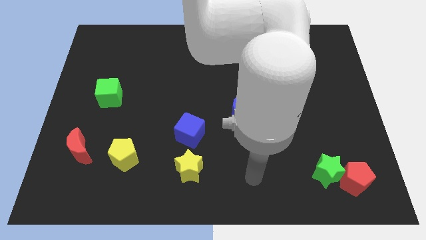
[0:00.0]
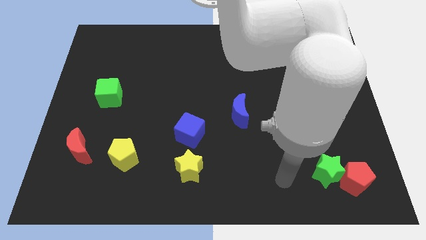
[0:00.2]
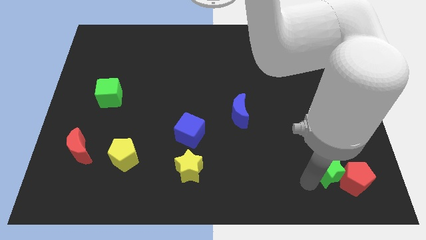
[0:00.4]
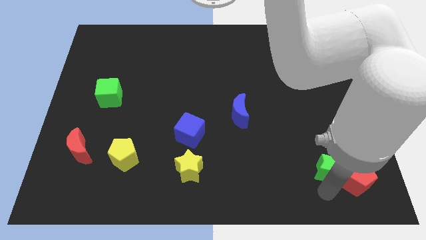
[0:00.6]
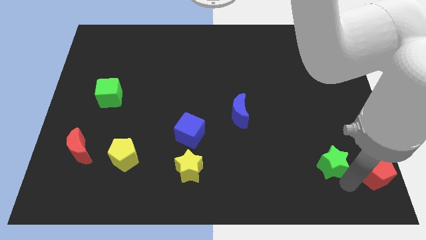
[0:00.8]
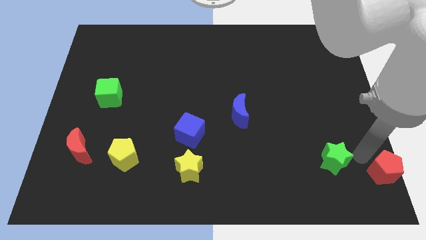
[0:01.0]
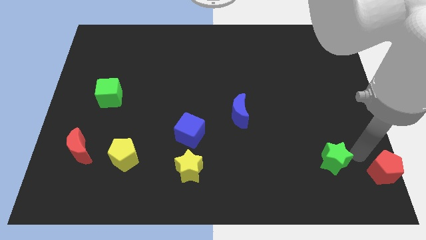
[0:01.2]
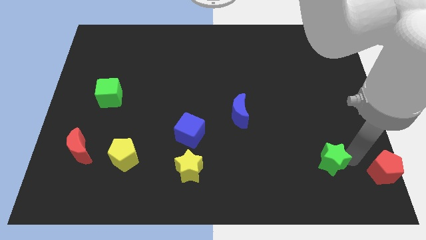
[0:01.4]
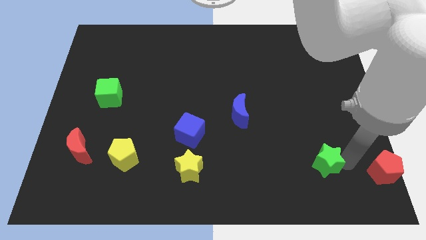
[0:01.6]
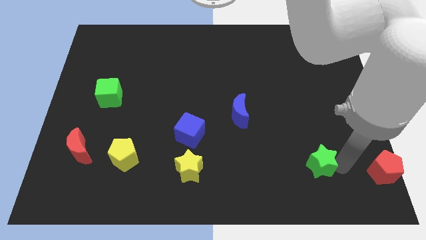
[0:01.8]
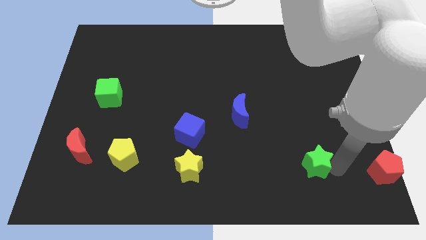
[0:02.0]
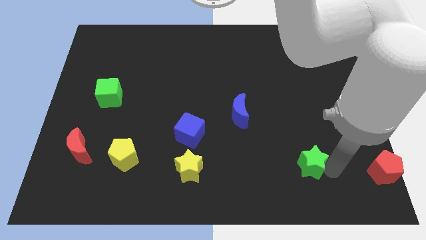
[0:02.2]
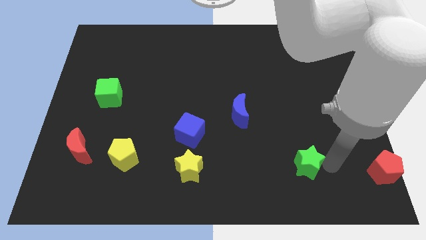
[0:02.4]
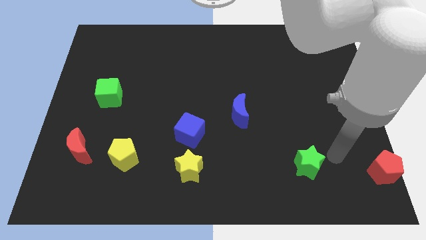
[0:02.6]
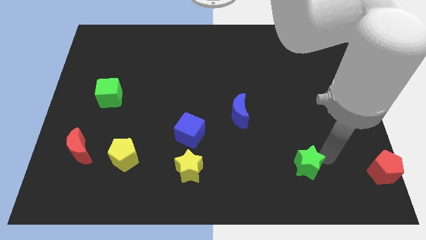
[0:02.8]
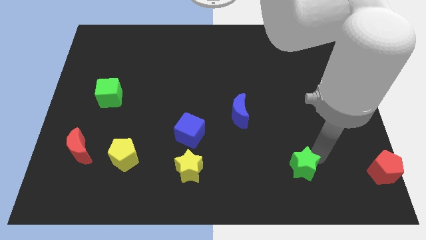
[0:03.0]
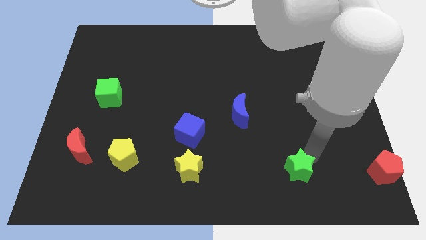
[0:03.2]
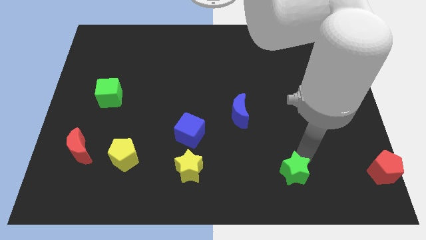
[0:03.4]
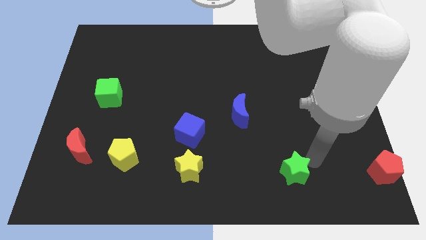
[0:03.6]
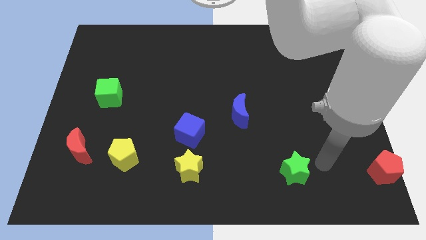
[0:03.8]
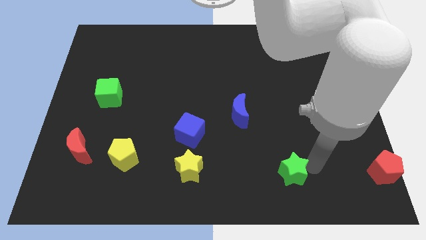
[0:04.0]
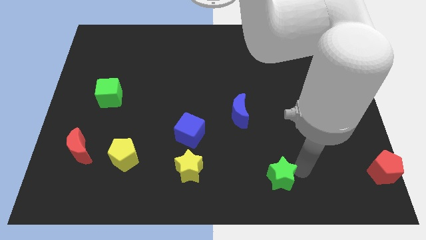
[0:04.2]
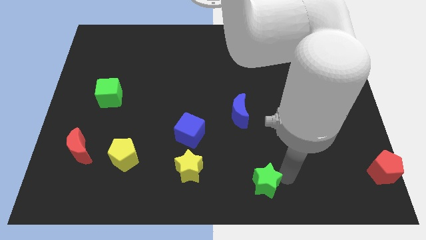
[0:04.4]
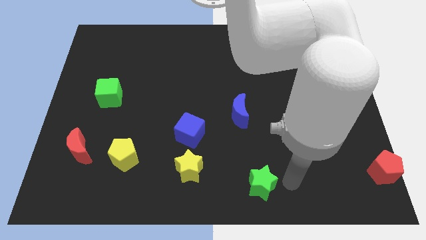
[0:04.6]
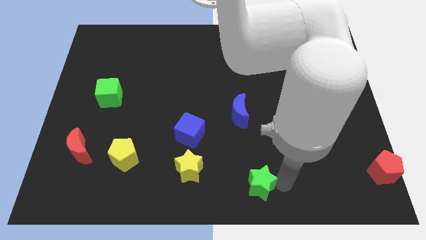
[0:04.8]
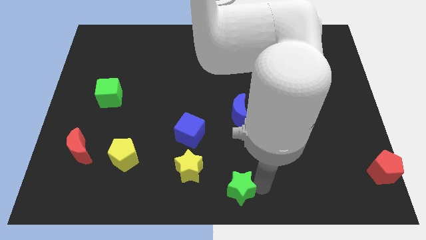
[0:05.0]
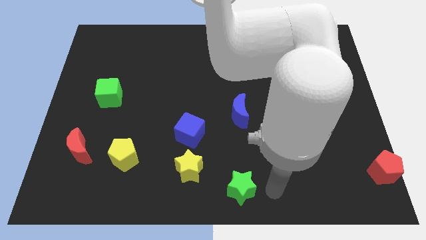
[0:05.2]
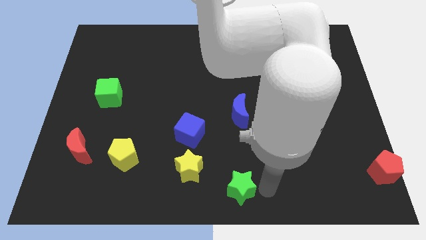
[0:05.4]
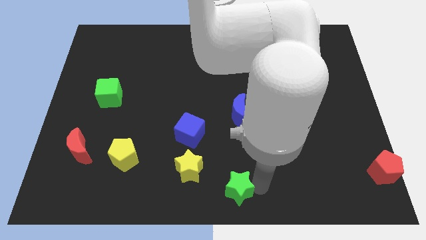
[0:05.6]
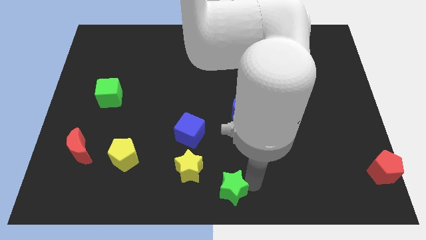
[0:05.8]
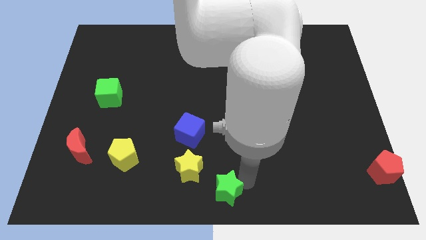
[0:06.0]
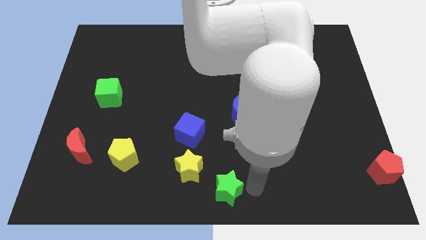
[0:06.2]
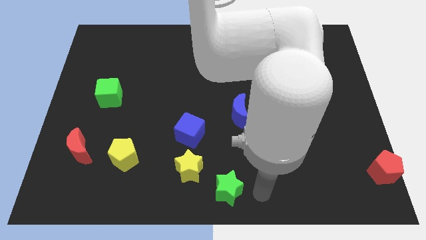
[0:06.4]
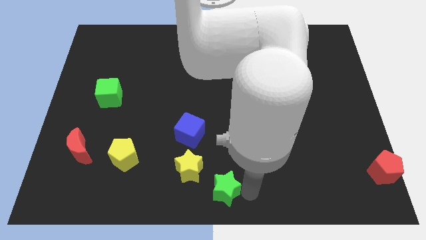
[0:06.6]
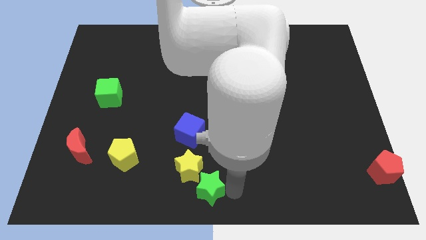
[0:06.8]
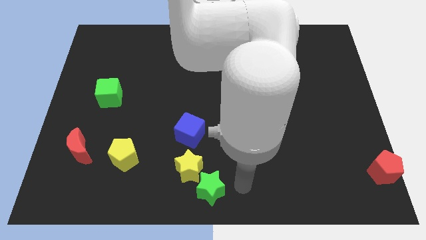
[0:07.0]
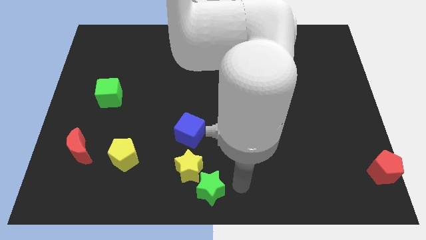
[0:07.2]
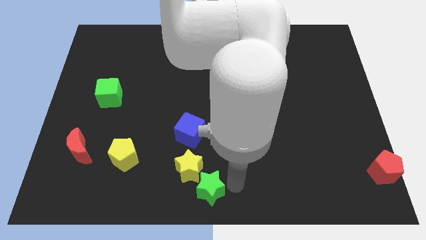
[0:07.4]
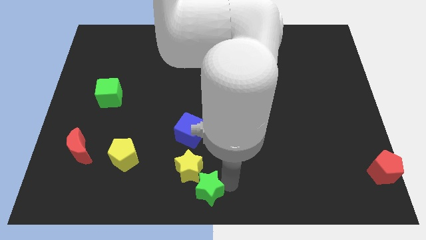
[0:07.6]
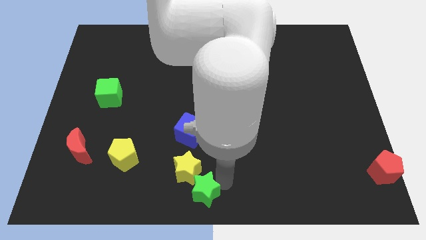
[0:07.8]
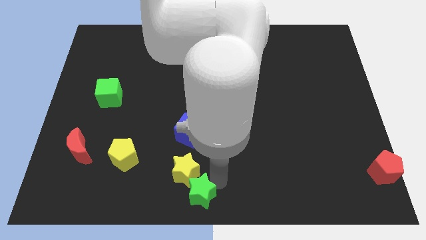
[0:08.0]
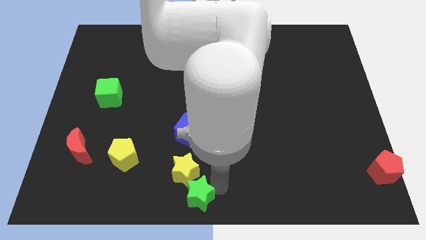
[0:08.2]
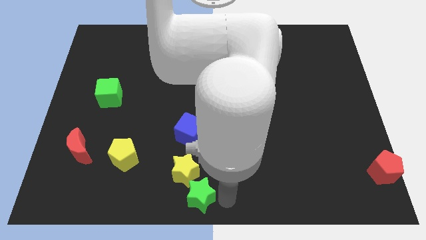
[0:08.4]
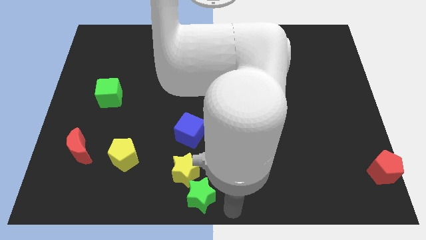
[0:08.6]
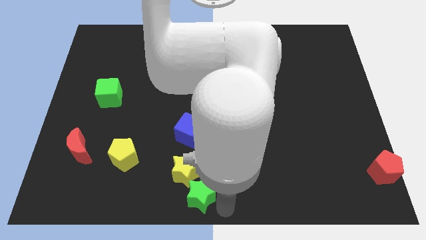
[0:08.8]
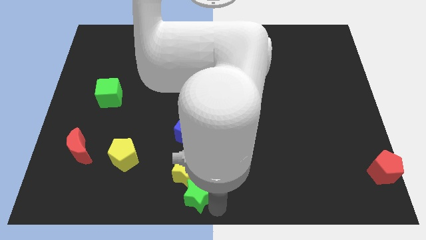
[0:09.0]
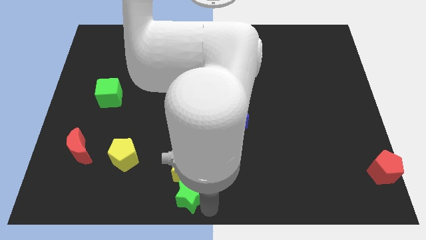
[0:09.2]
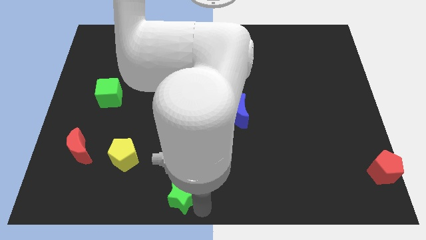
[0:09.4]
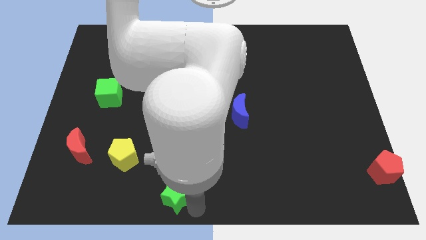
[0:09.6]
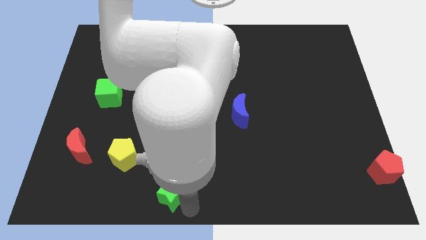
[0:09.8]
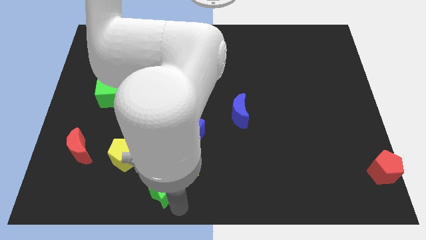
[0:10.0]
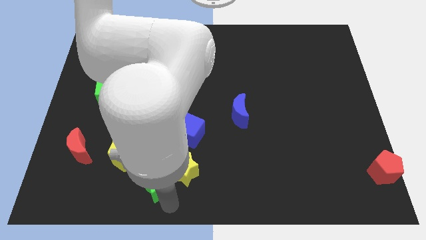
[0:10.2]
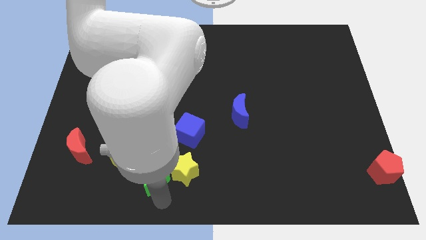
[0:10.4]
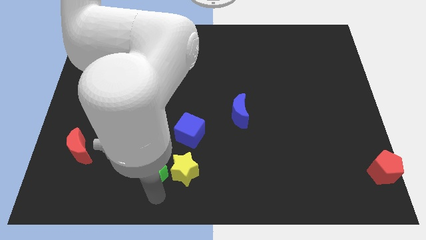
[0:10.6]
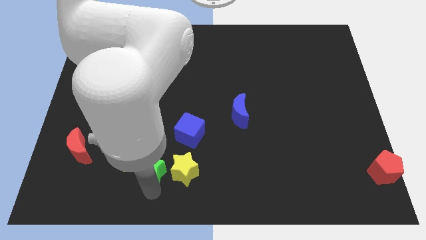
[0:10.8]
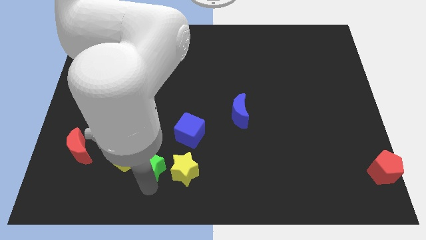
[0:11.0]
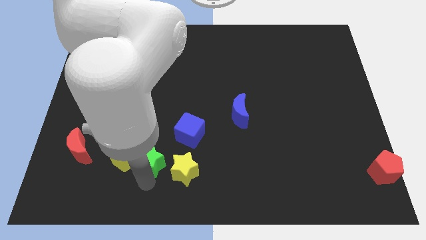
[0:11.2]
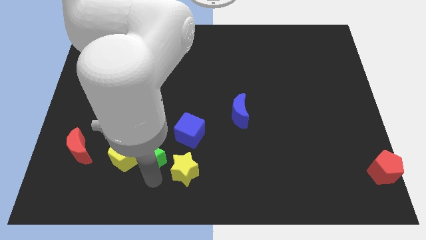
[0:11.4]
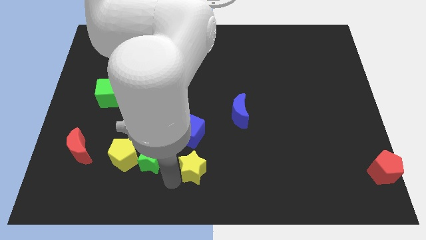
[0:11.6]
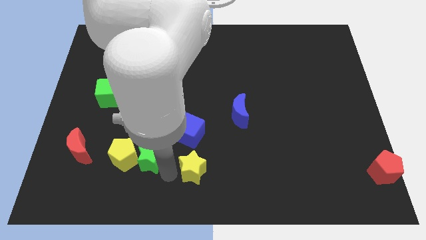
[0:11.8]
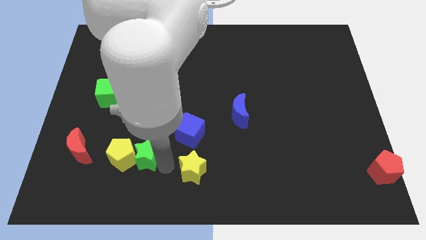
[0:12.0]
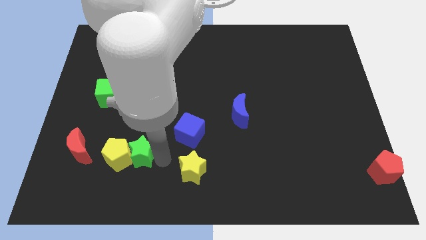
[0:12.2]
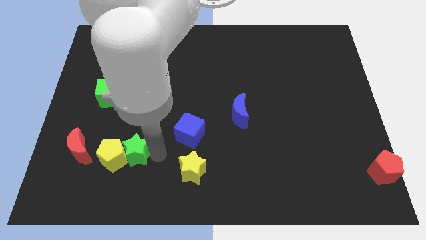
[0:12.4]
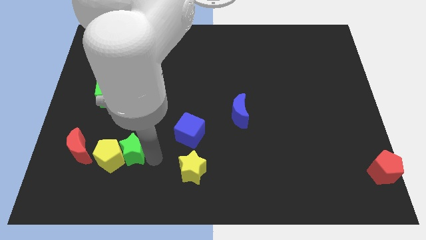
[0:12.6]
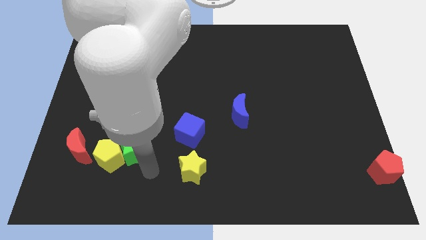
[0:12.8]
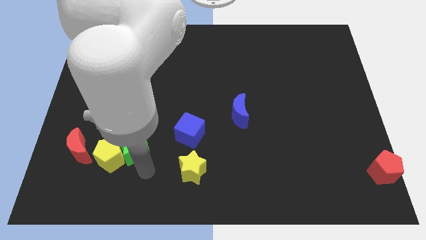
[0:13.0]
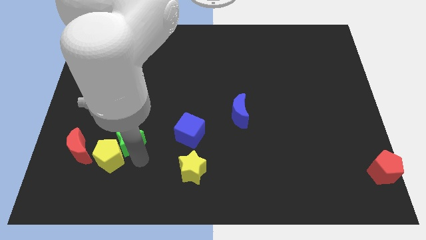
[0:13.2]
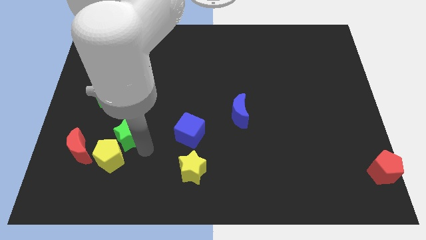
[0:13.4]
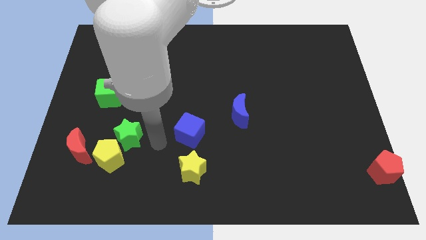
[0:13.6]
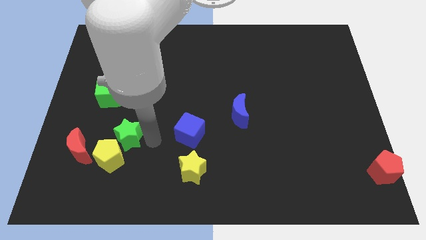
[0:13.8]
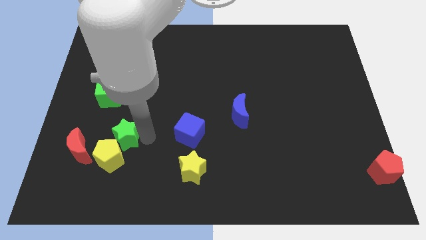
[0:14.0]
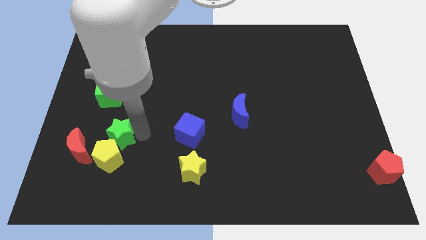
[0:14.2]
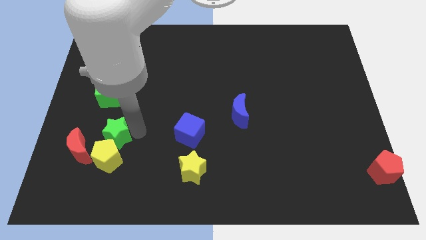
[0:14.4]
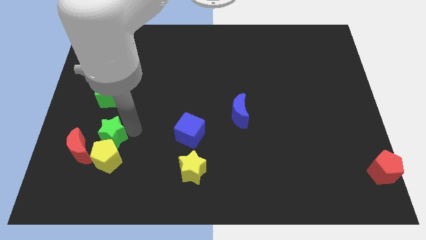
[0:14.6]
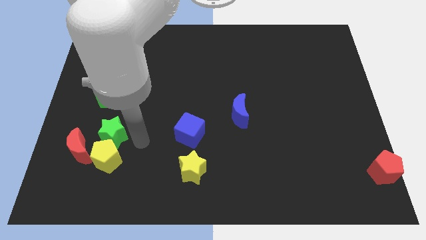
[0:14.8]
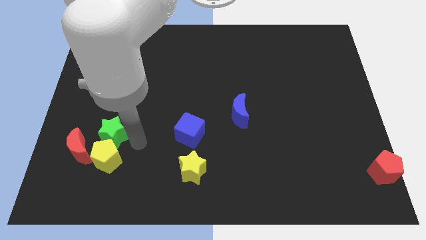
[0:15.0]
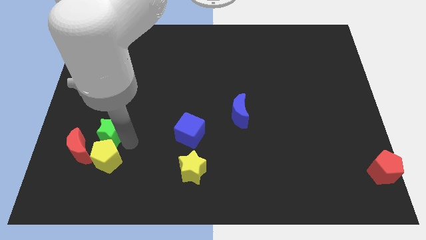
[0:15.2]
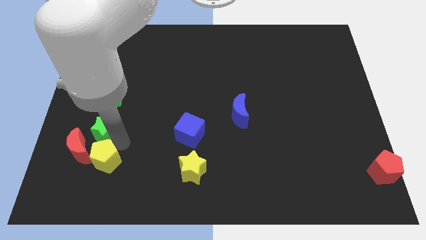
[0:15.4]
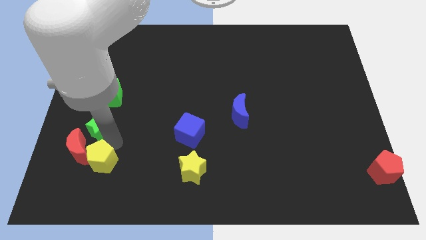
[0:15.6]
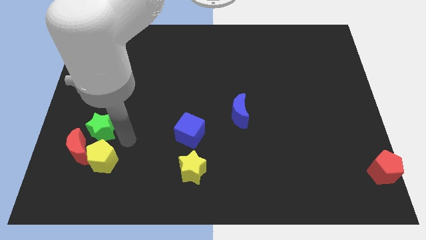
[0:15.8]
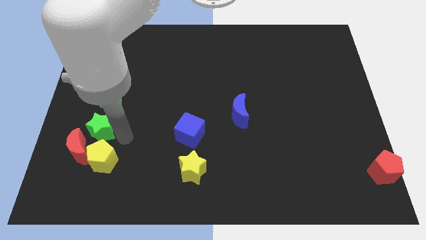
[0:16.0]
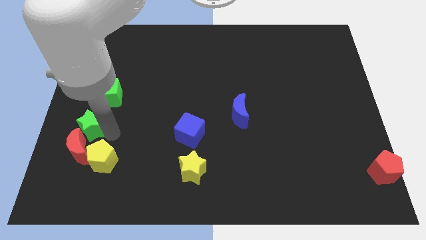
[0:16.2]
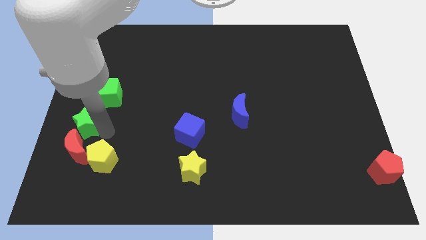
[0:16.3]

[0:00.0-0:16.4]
put the green star to the center left
